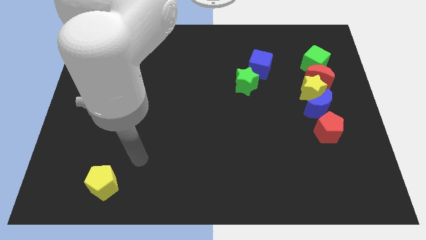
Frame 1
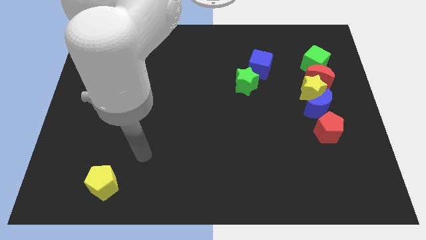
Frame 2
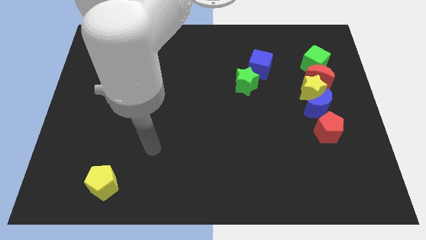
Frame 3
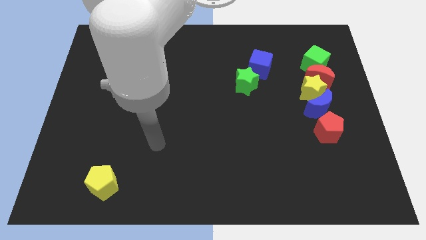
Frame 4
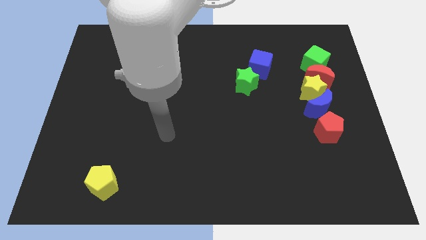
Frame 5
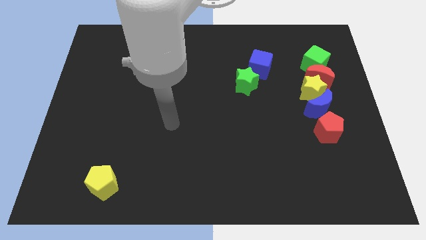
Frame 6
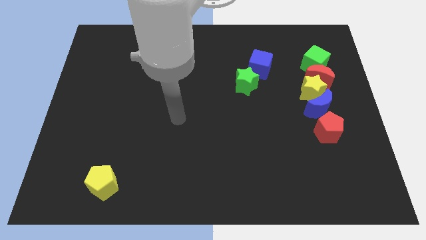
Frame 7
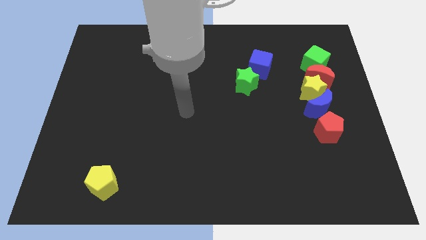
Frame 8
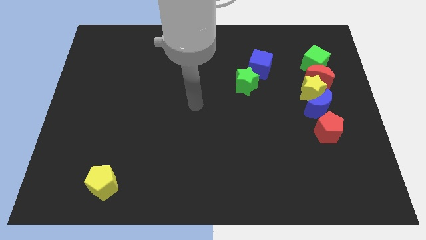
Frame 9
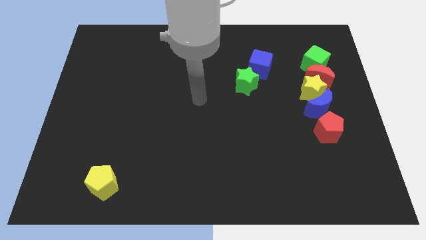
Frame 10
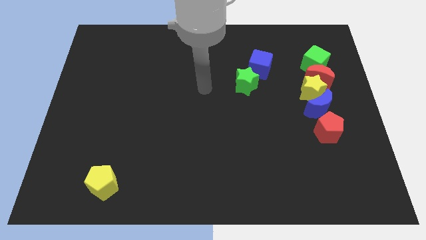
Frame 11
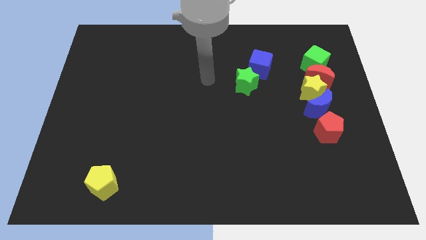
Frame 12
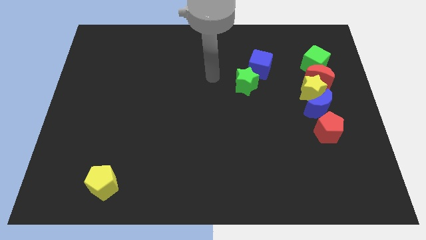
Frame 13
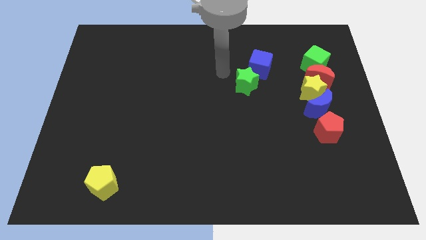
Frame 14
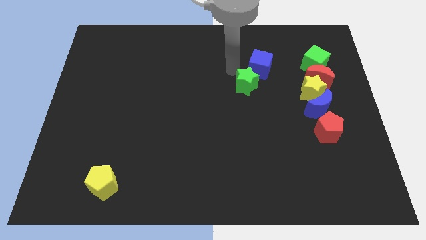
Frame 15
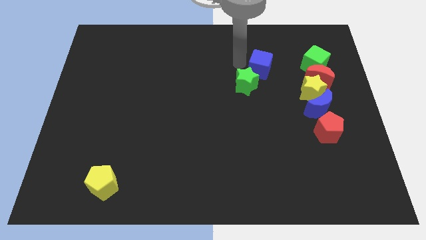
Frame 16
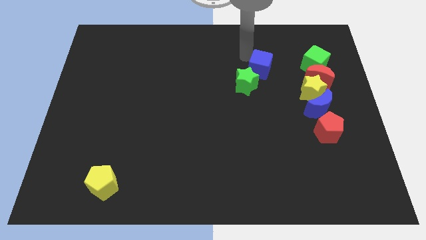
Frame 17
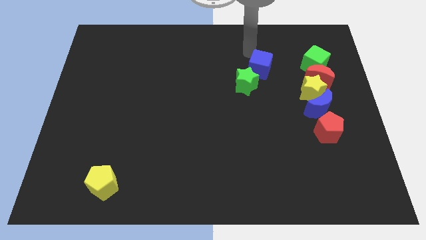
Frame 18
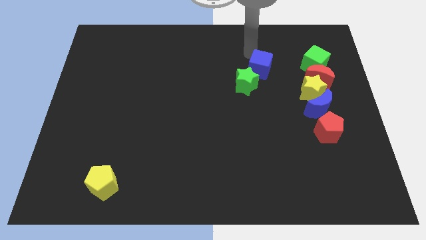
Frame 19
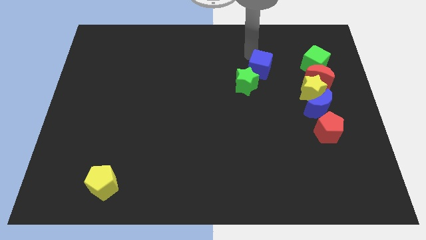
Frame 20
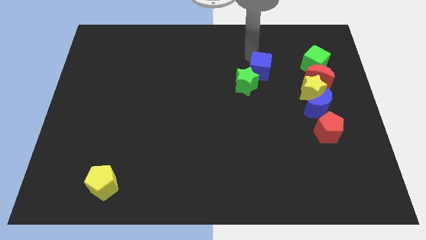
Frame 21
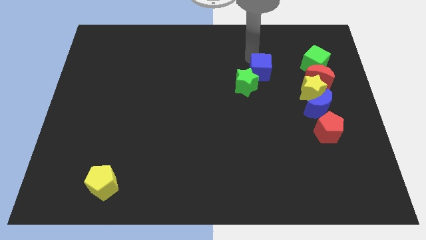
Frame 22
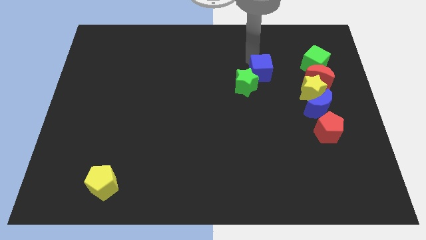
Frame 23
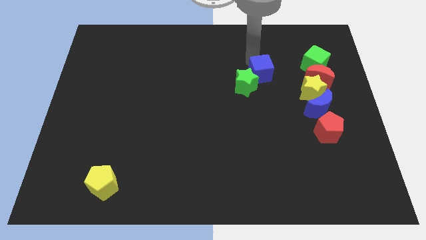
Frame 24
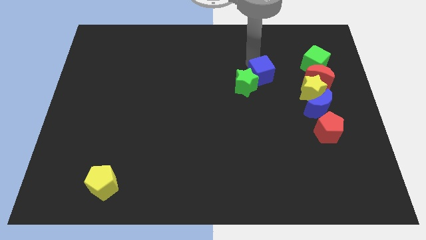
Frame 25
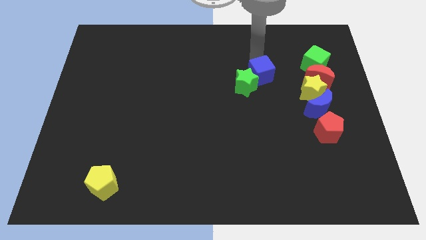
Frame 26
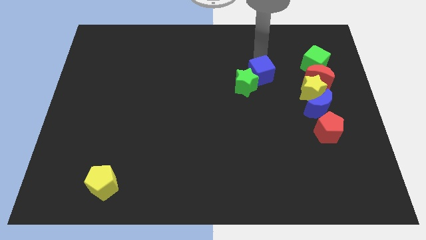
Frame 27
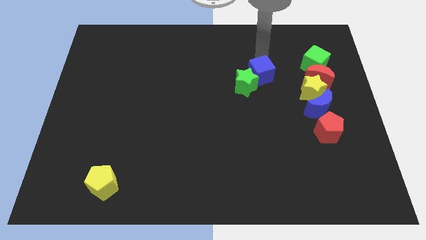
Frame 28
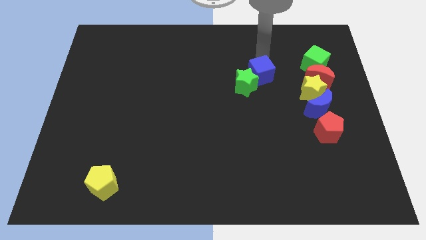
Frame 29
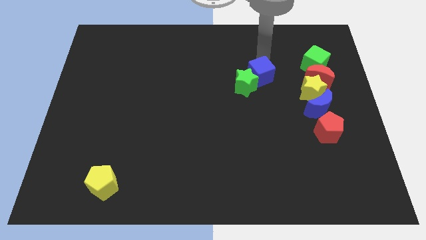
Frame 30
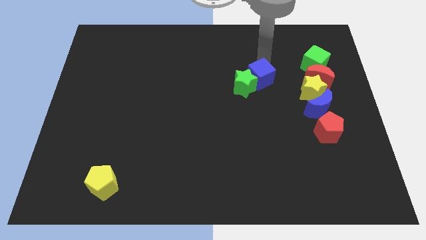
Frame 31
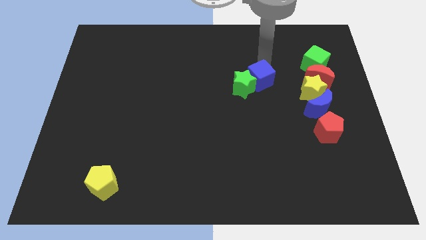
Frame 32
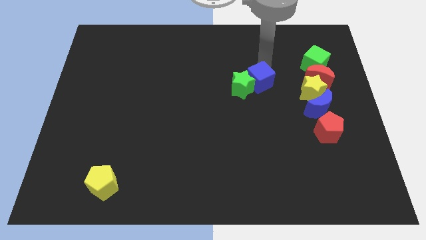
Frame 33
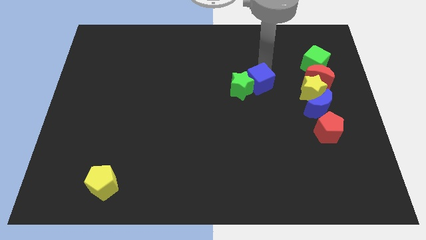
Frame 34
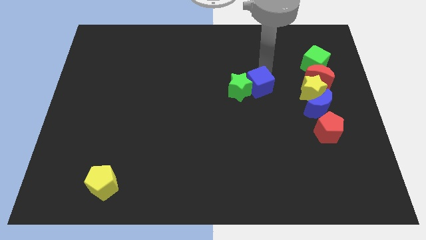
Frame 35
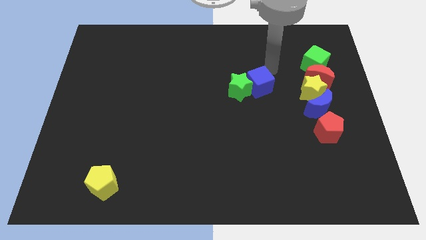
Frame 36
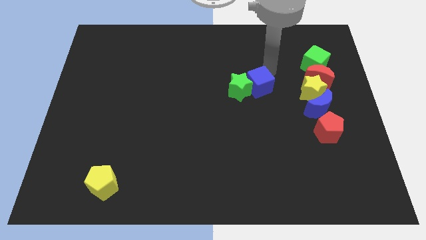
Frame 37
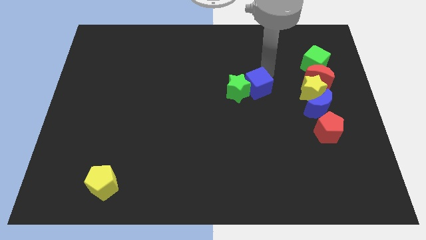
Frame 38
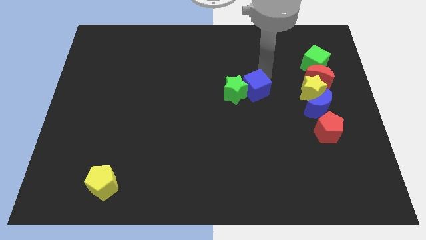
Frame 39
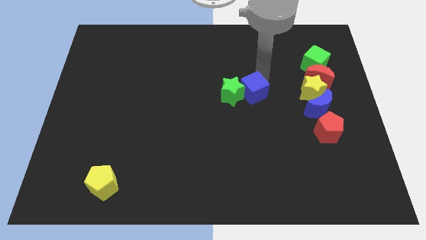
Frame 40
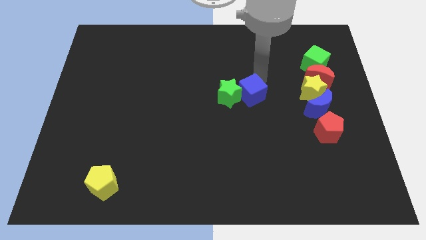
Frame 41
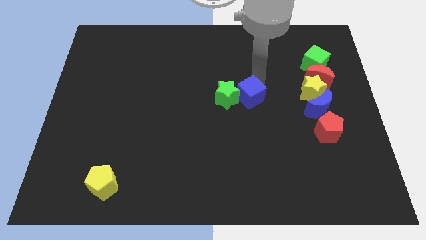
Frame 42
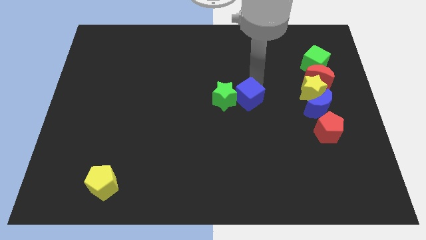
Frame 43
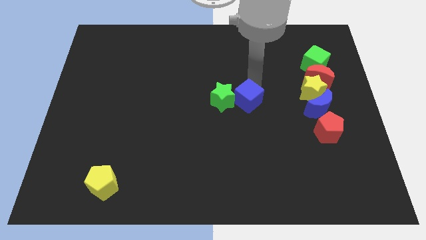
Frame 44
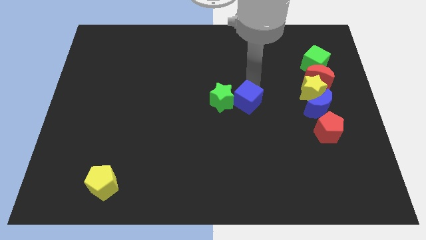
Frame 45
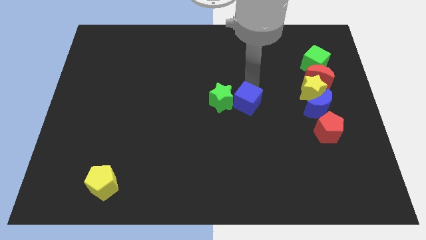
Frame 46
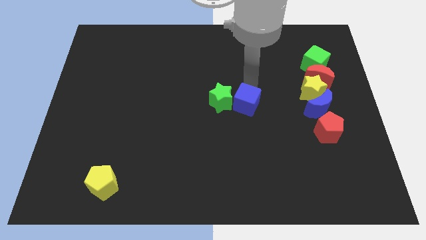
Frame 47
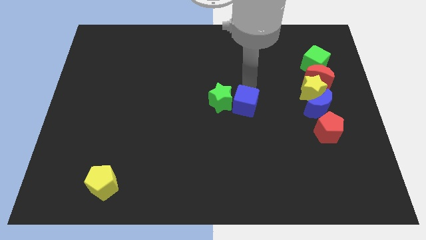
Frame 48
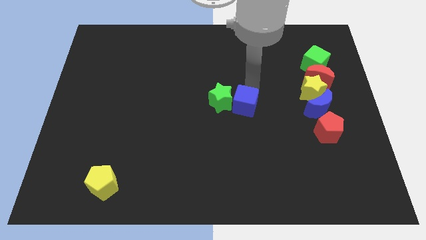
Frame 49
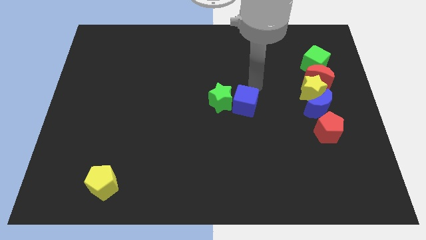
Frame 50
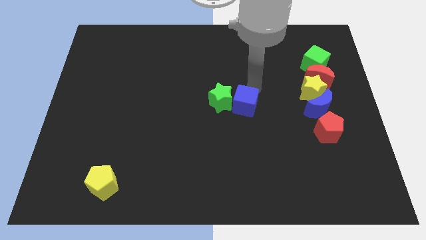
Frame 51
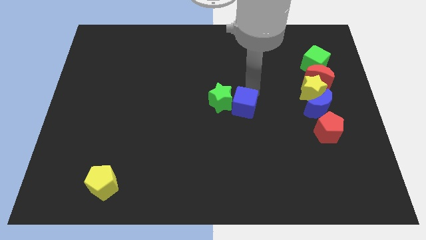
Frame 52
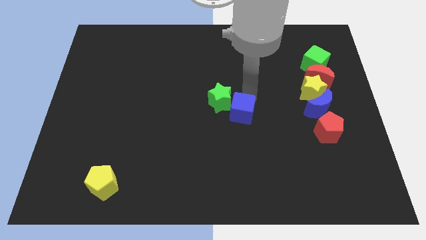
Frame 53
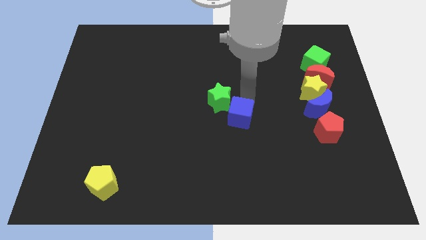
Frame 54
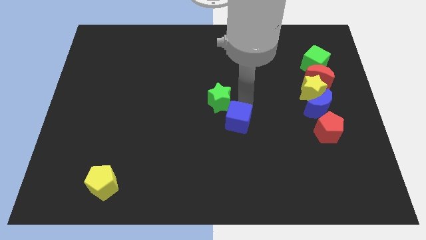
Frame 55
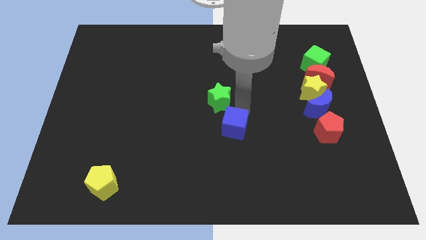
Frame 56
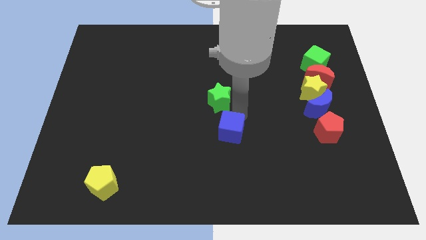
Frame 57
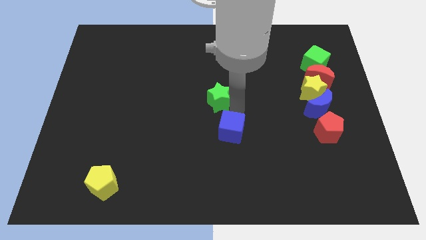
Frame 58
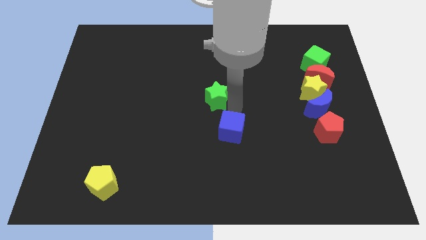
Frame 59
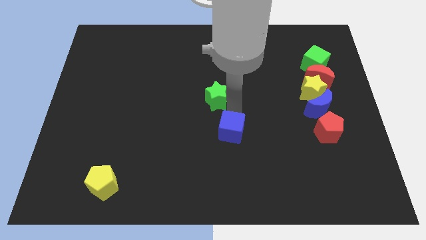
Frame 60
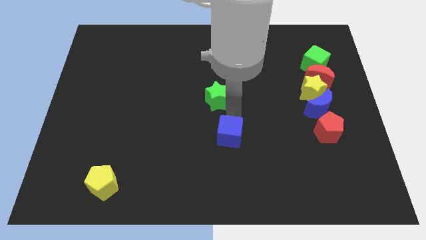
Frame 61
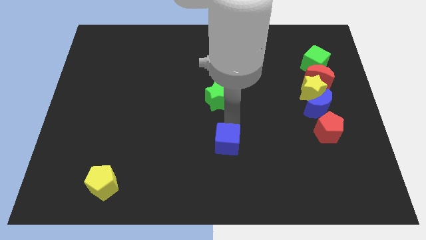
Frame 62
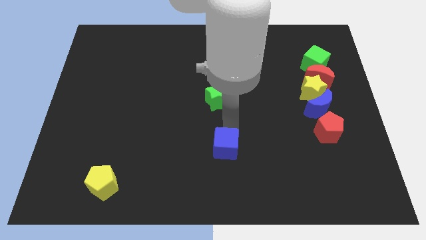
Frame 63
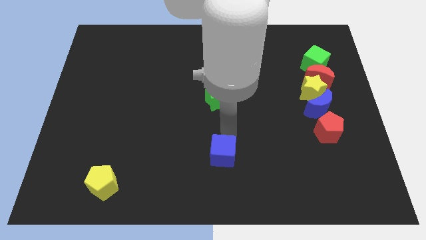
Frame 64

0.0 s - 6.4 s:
move the blue cube to the bottom
